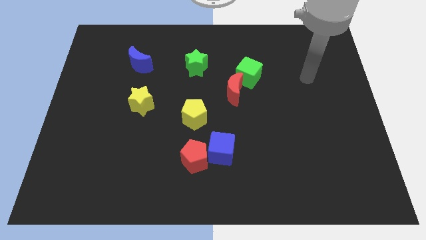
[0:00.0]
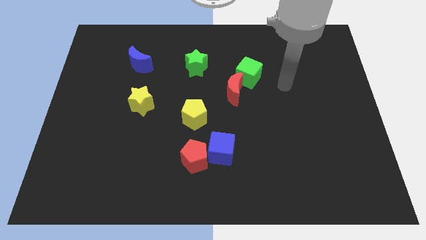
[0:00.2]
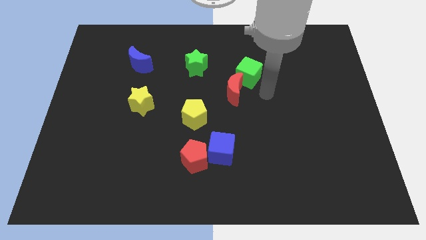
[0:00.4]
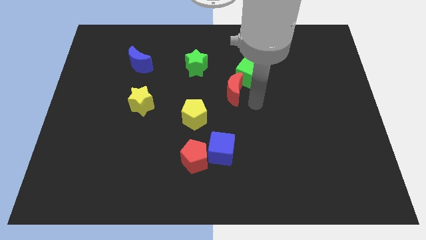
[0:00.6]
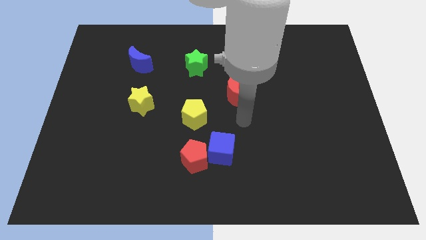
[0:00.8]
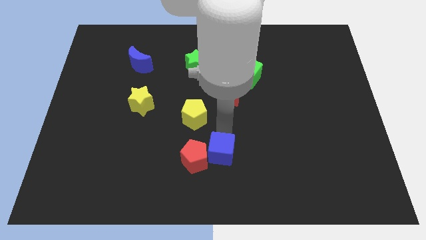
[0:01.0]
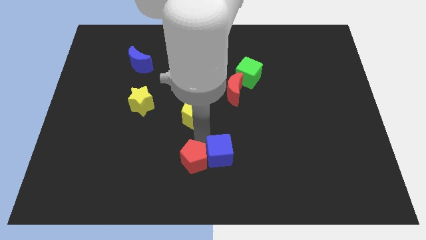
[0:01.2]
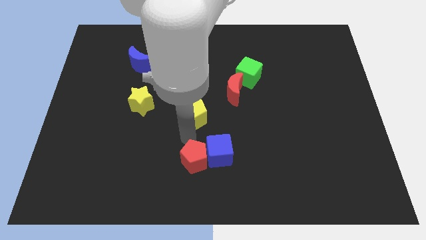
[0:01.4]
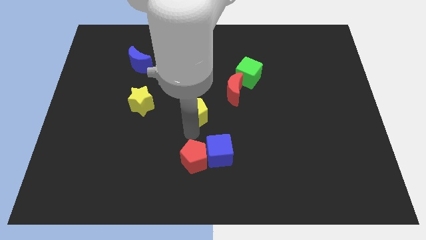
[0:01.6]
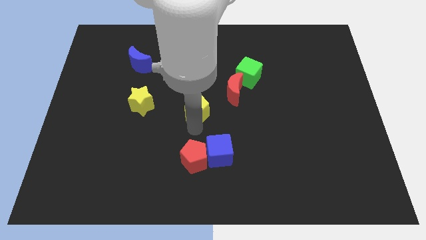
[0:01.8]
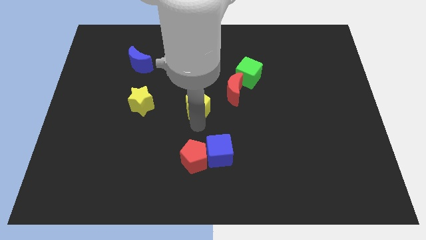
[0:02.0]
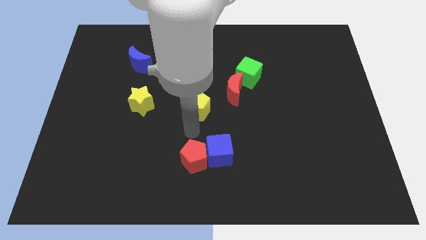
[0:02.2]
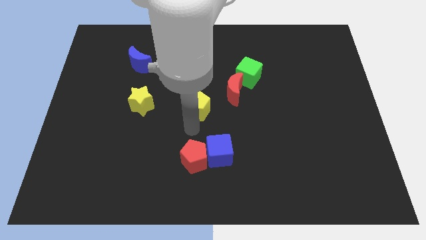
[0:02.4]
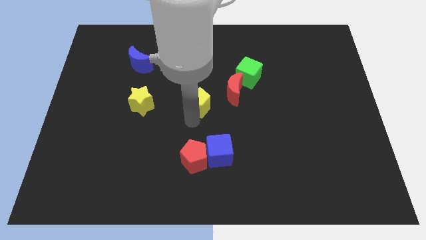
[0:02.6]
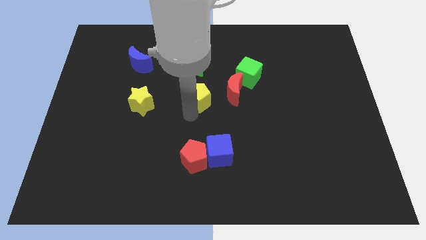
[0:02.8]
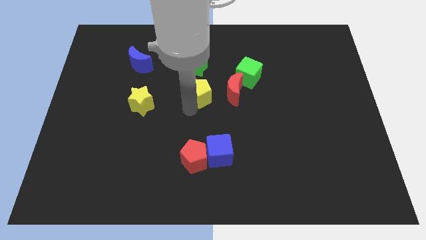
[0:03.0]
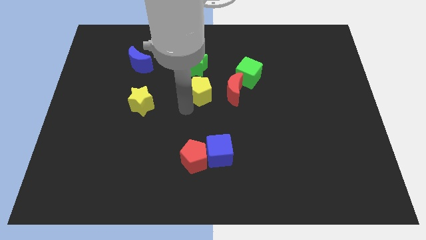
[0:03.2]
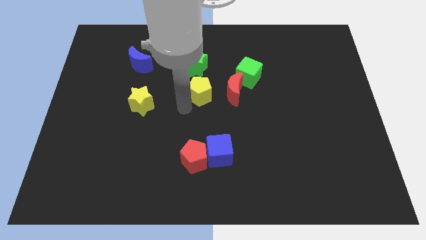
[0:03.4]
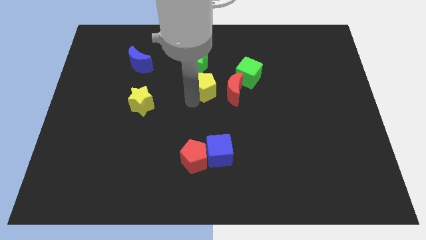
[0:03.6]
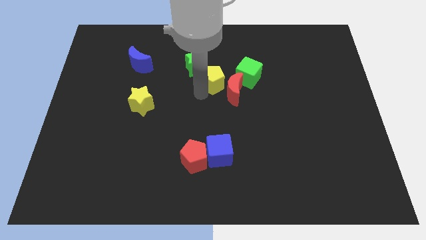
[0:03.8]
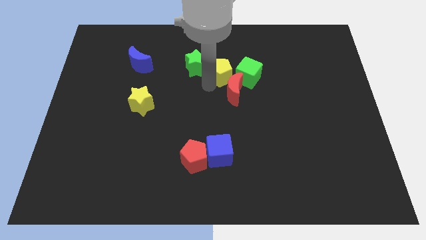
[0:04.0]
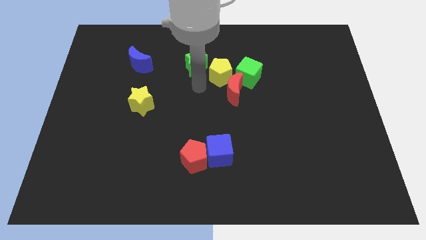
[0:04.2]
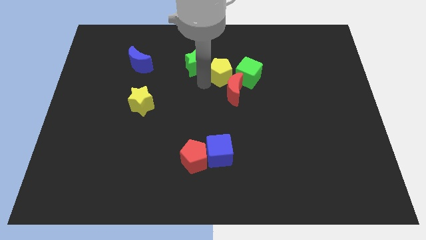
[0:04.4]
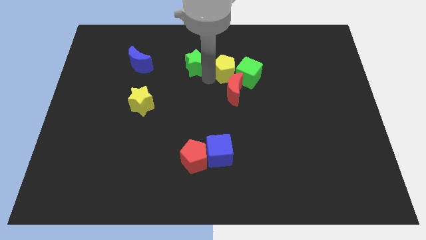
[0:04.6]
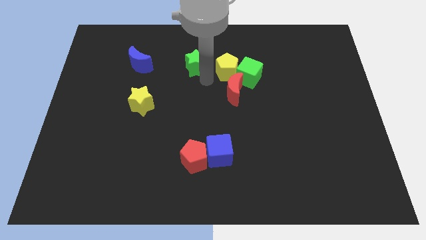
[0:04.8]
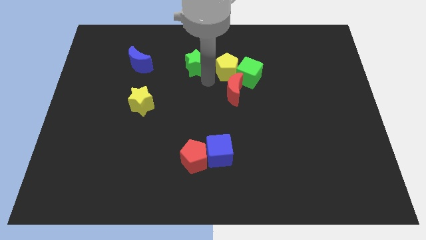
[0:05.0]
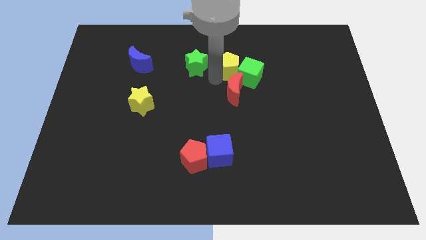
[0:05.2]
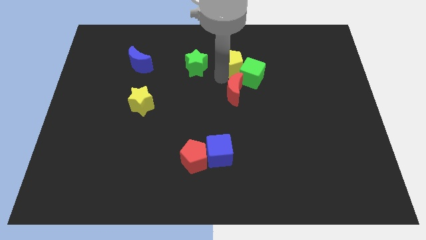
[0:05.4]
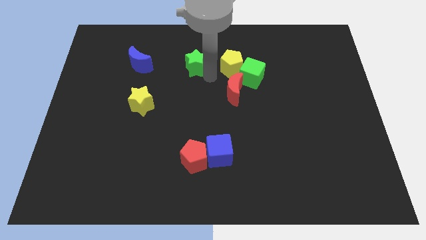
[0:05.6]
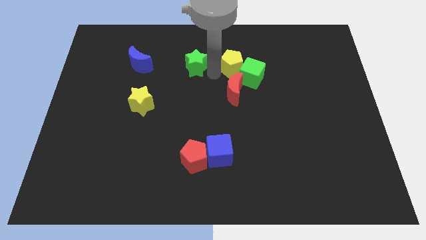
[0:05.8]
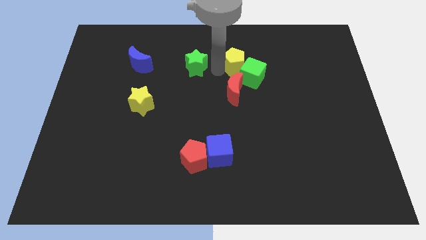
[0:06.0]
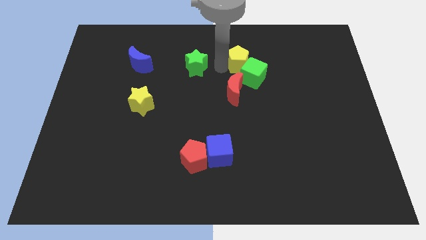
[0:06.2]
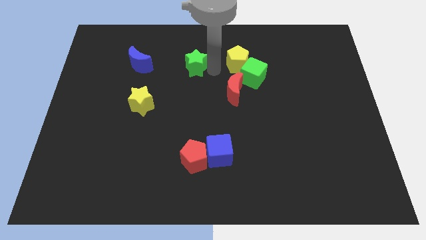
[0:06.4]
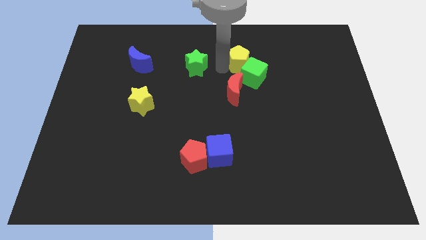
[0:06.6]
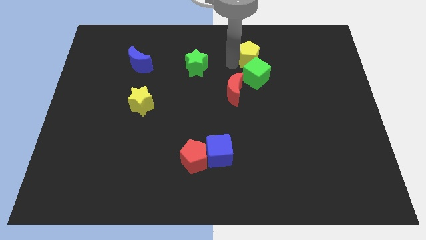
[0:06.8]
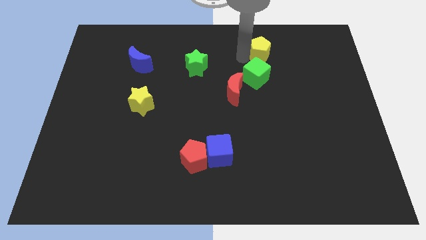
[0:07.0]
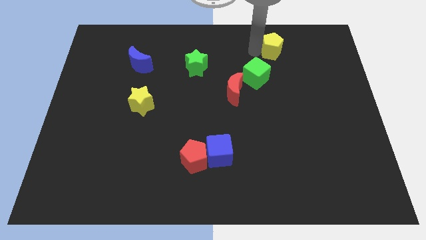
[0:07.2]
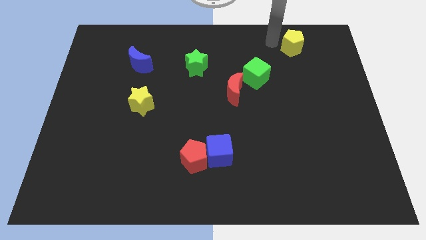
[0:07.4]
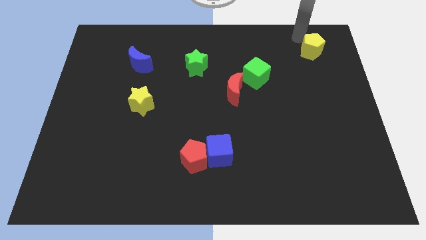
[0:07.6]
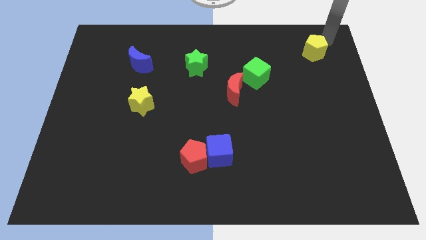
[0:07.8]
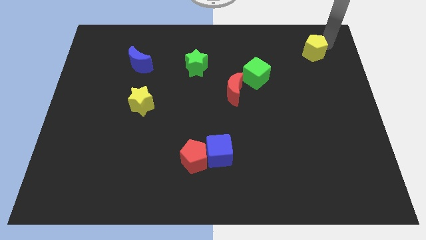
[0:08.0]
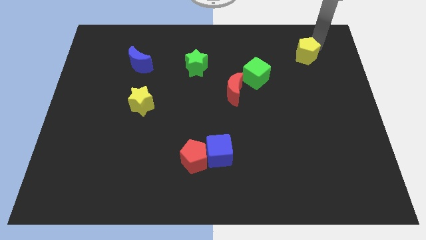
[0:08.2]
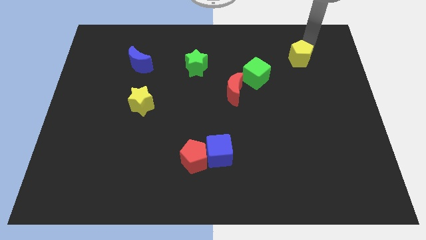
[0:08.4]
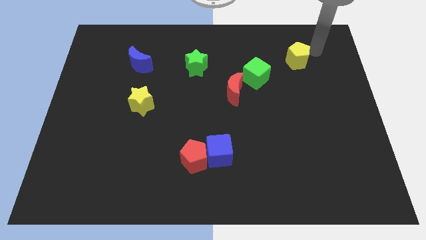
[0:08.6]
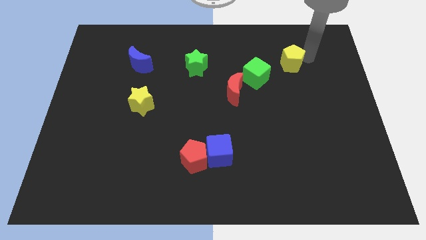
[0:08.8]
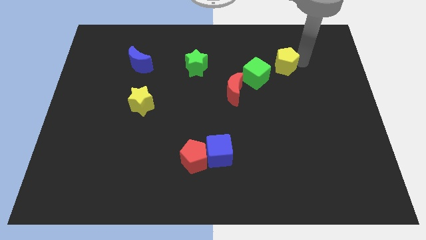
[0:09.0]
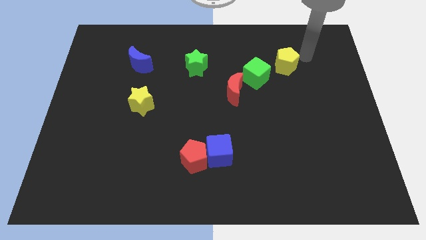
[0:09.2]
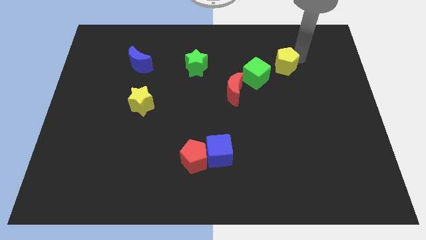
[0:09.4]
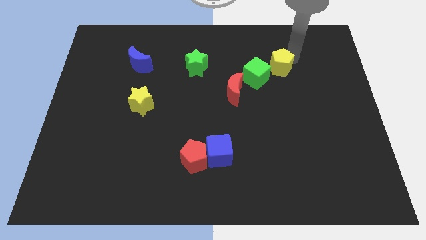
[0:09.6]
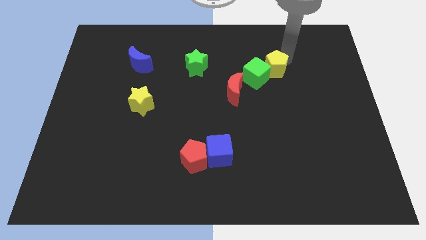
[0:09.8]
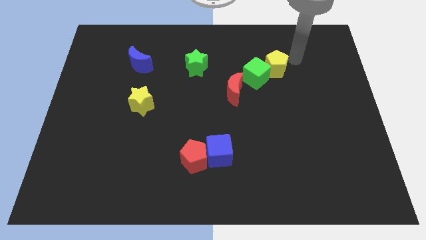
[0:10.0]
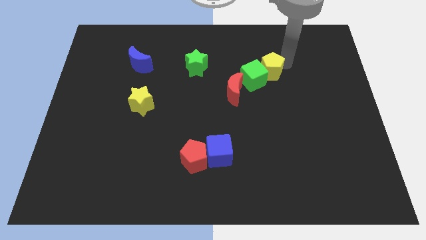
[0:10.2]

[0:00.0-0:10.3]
move the yellow pentagon to the top right of the red moon

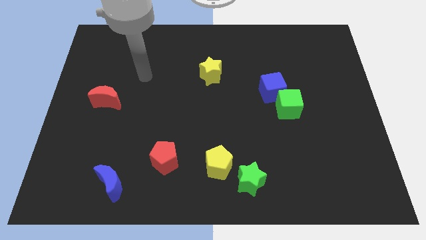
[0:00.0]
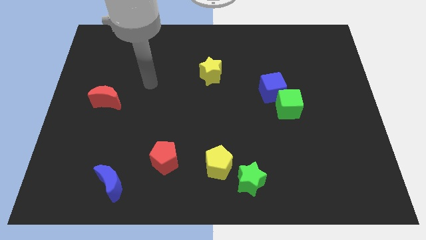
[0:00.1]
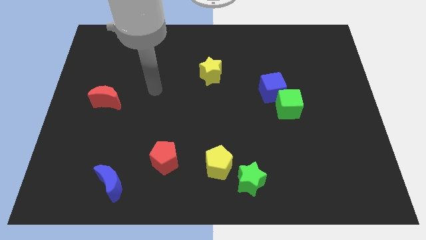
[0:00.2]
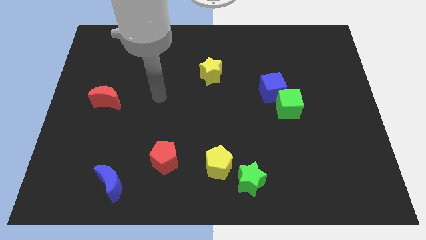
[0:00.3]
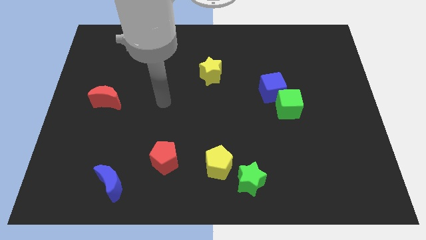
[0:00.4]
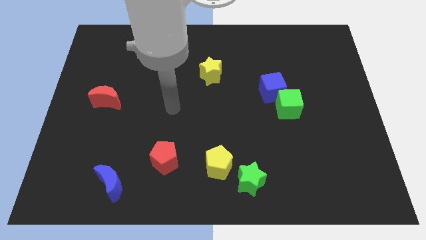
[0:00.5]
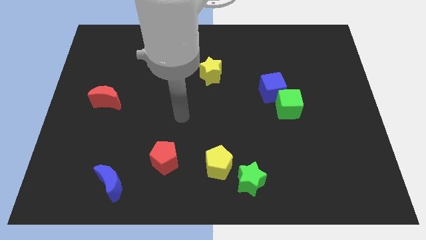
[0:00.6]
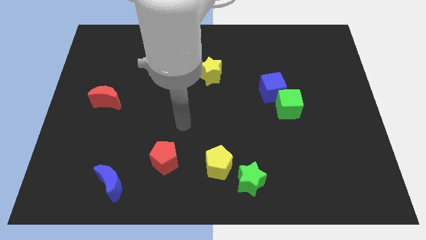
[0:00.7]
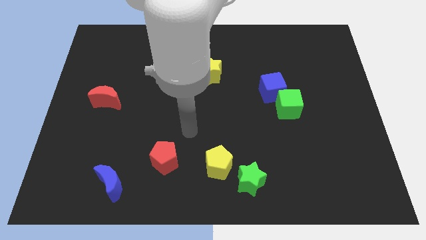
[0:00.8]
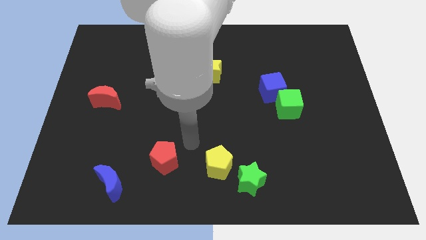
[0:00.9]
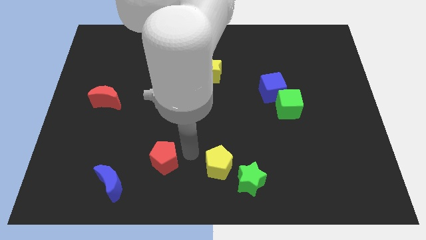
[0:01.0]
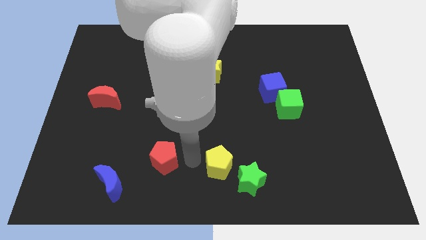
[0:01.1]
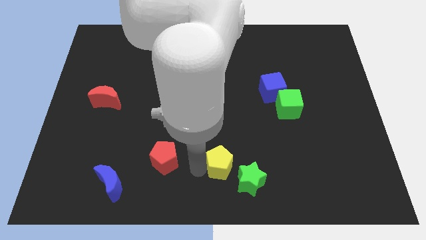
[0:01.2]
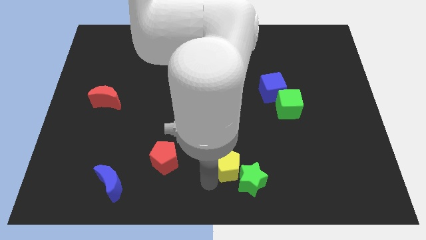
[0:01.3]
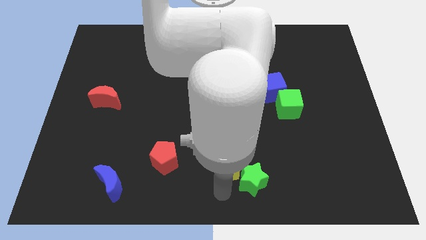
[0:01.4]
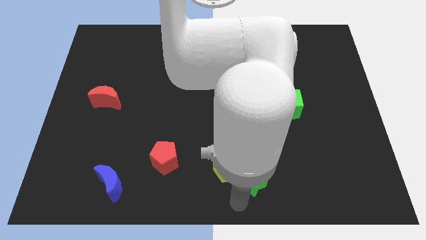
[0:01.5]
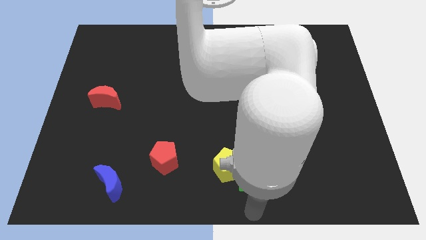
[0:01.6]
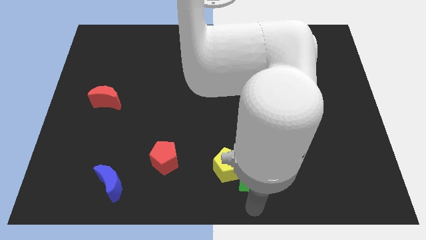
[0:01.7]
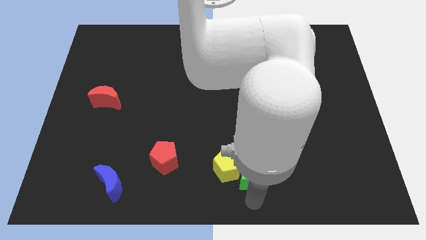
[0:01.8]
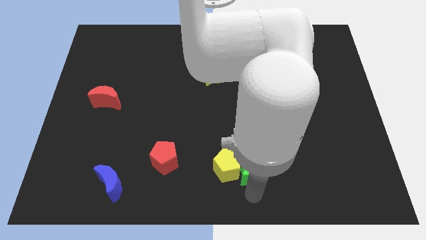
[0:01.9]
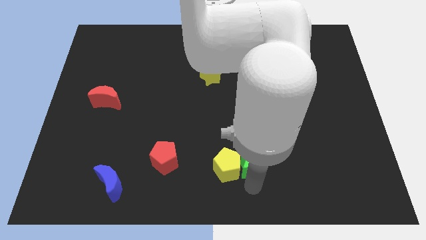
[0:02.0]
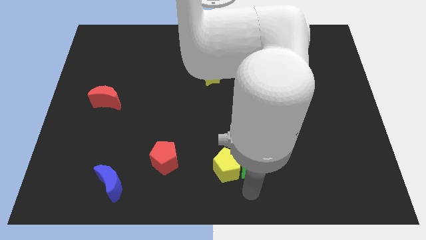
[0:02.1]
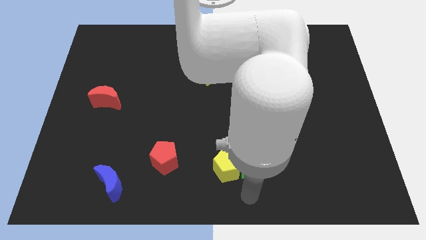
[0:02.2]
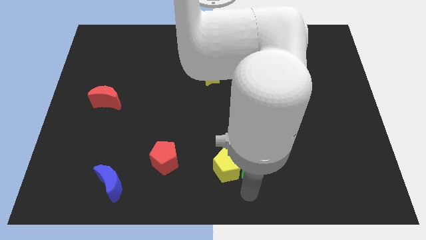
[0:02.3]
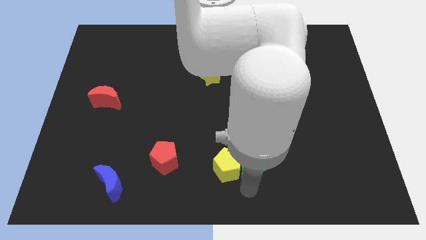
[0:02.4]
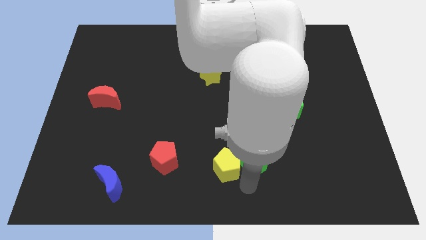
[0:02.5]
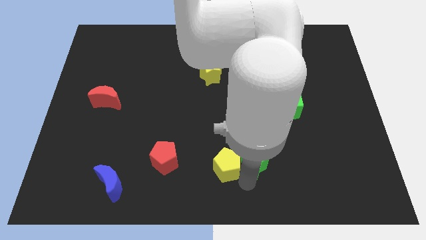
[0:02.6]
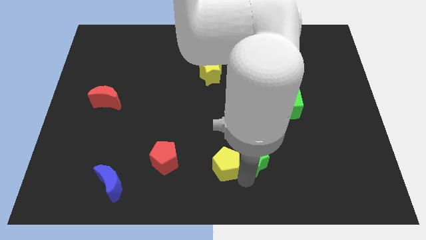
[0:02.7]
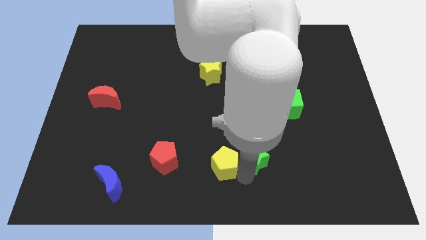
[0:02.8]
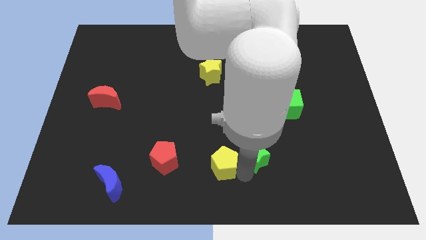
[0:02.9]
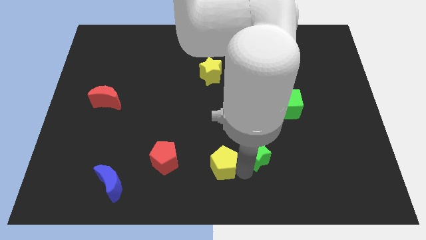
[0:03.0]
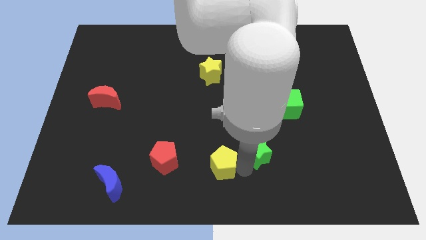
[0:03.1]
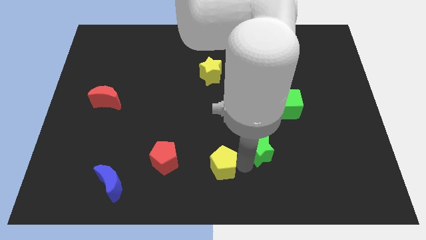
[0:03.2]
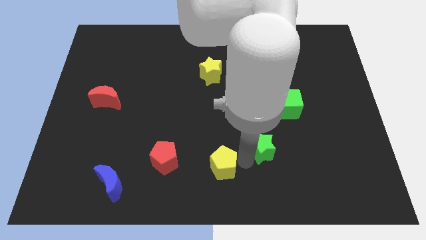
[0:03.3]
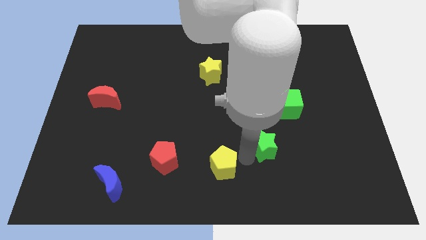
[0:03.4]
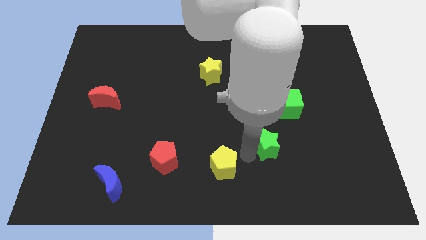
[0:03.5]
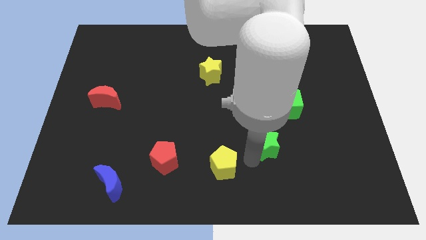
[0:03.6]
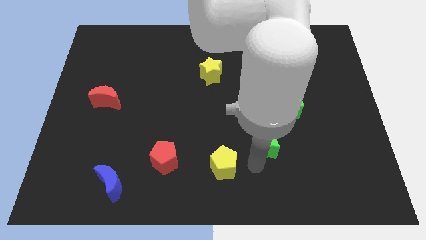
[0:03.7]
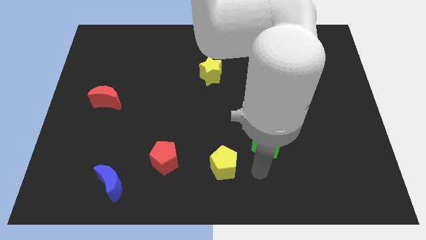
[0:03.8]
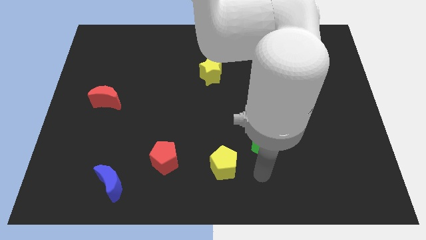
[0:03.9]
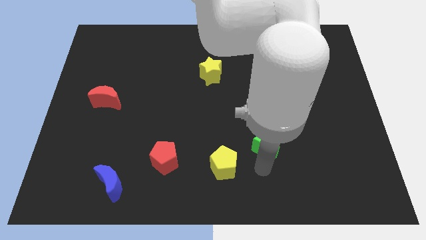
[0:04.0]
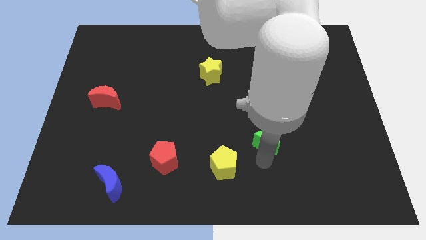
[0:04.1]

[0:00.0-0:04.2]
move the green star to the bottom left side of the green cube
